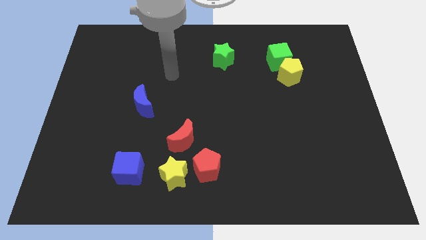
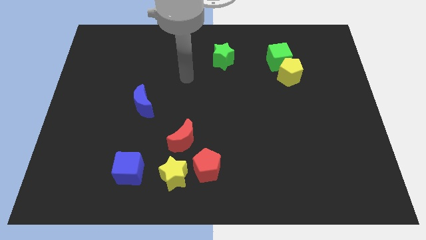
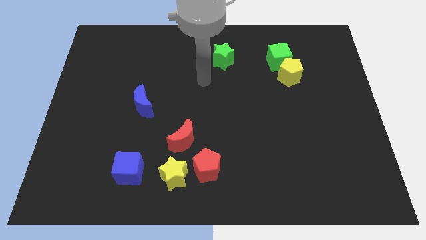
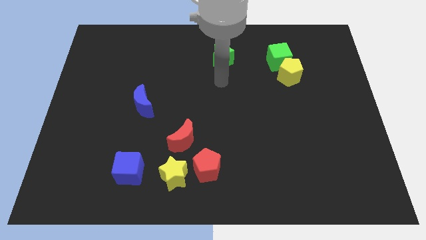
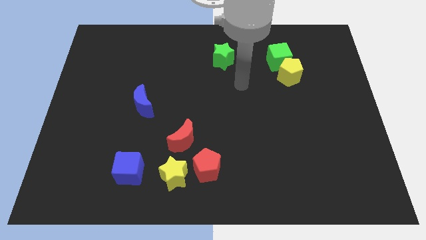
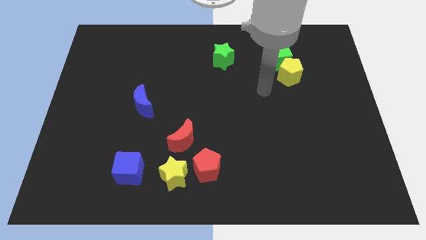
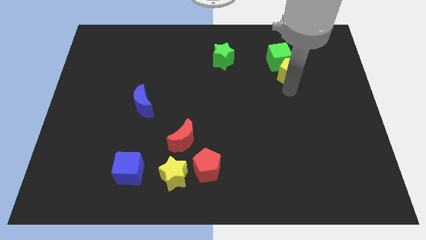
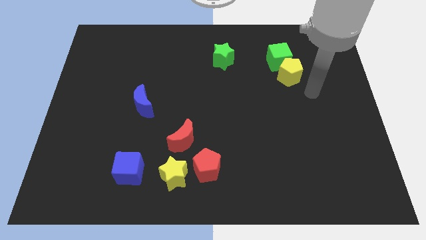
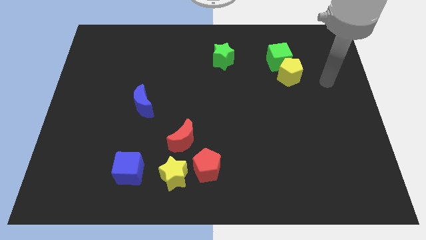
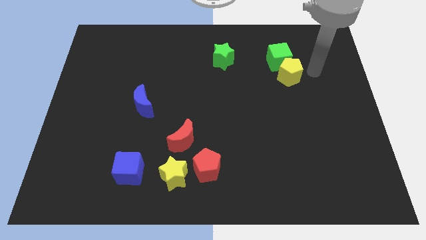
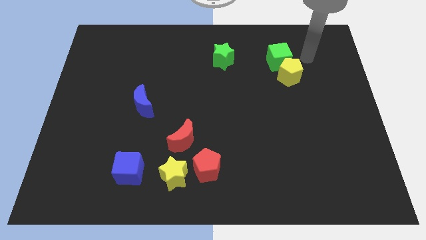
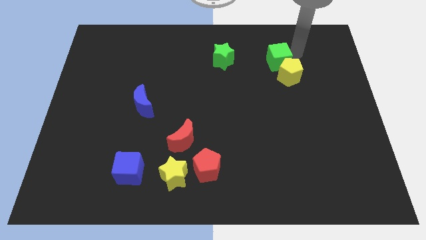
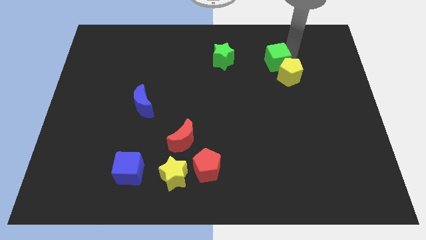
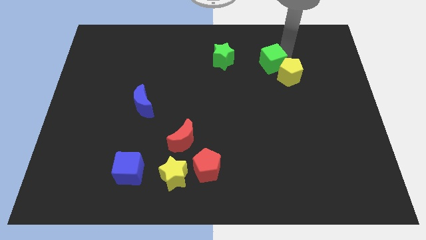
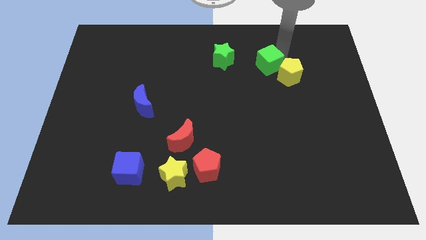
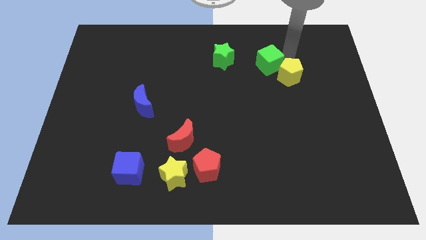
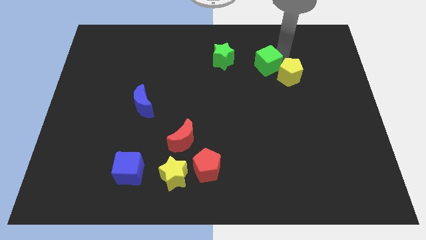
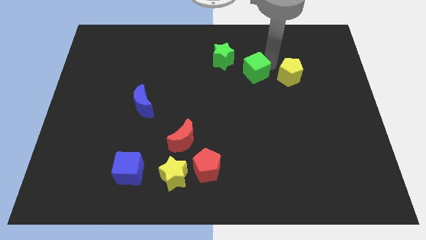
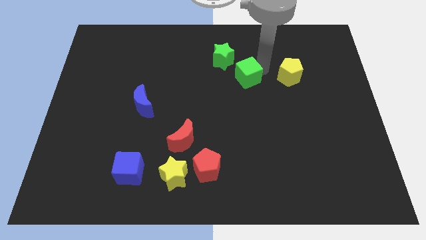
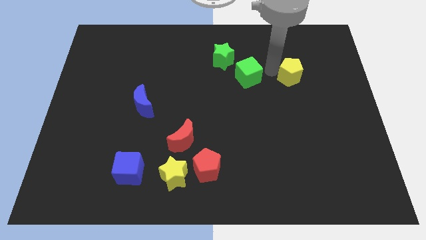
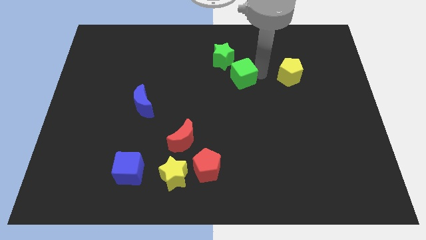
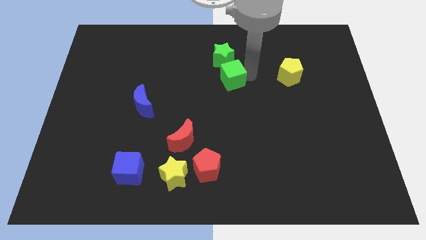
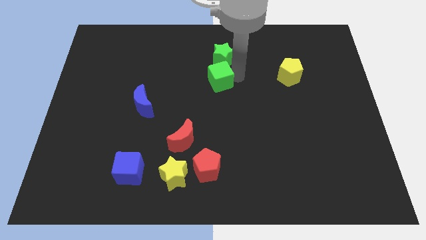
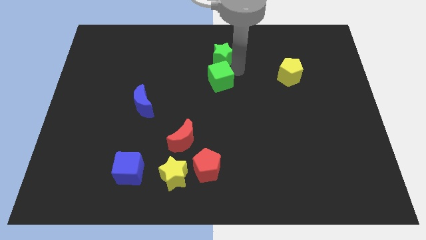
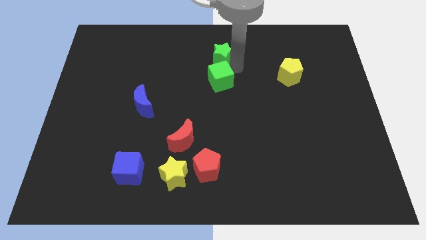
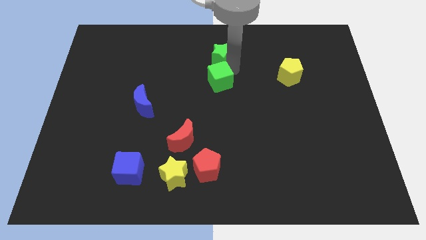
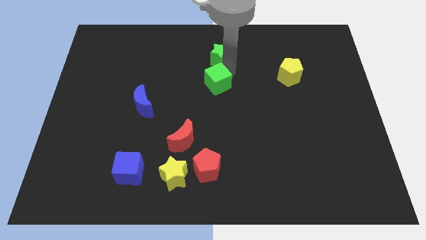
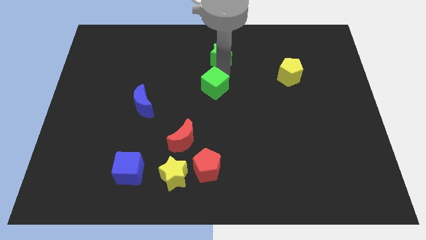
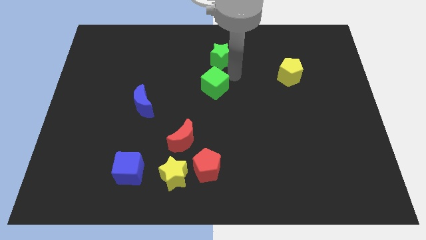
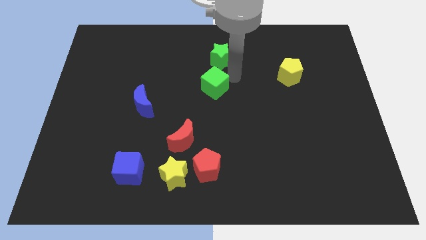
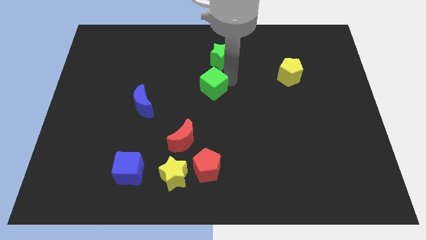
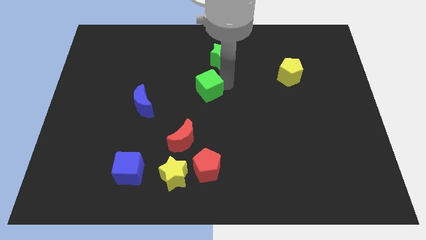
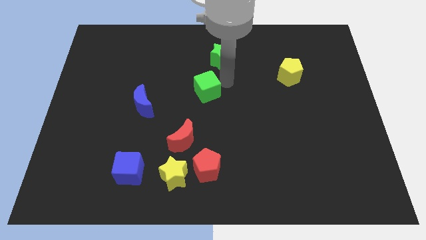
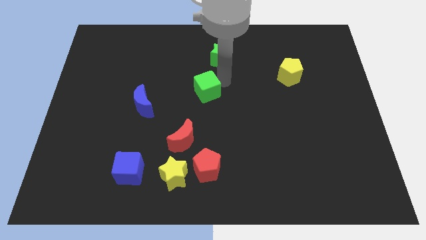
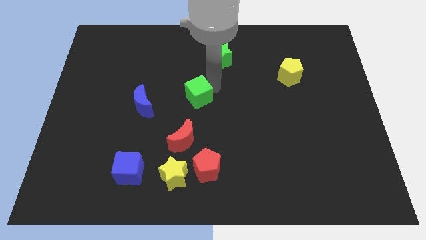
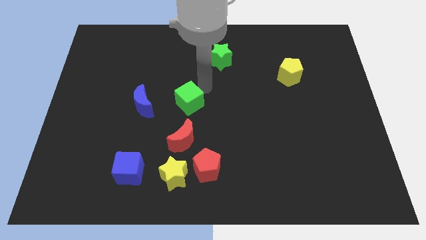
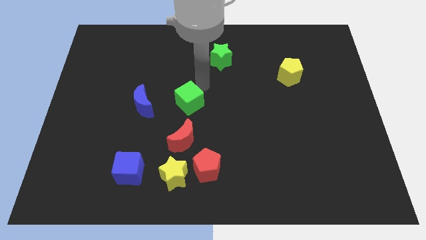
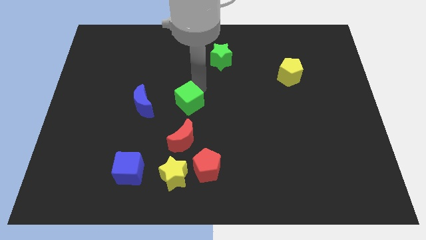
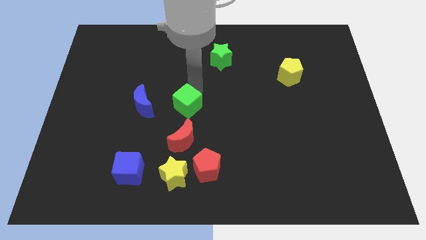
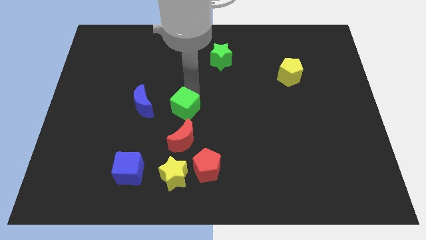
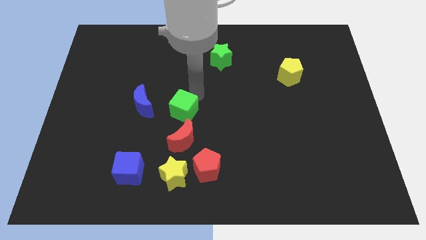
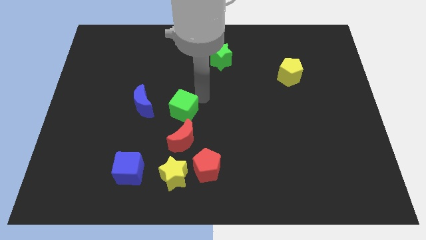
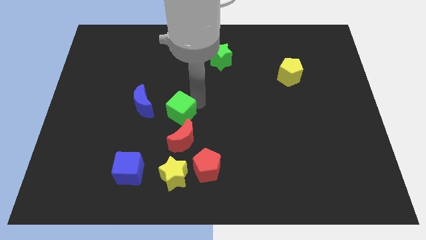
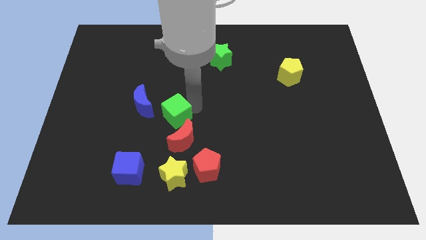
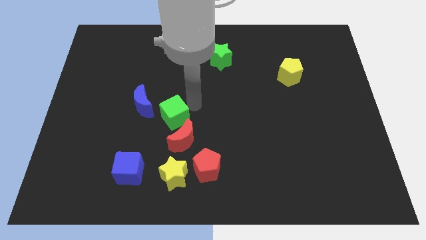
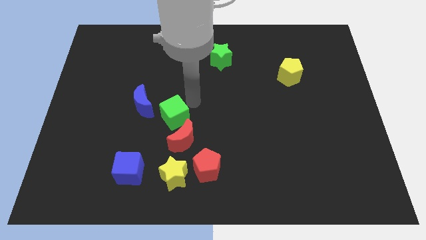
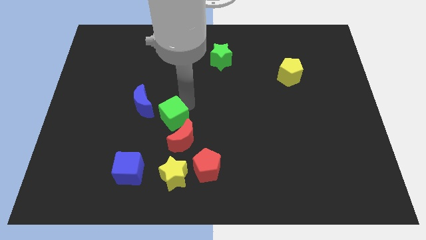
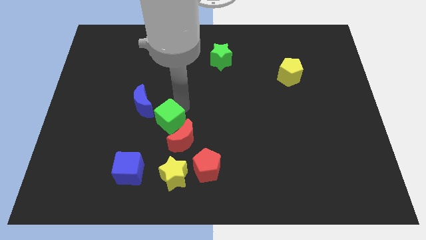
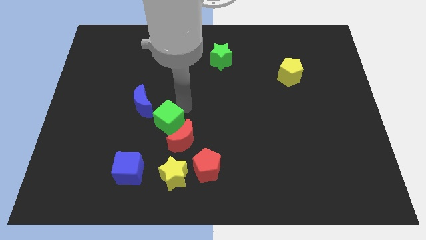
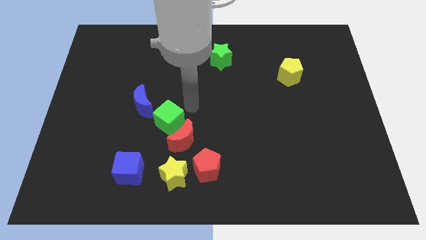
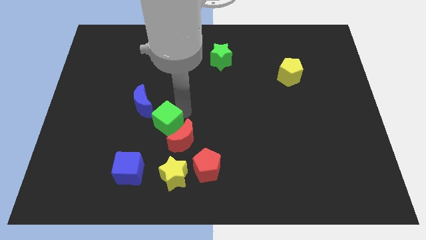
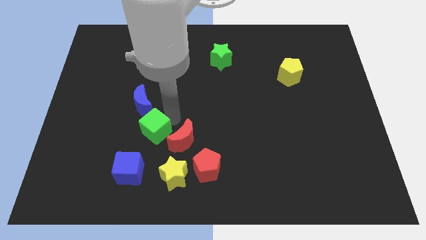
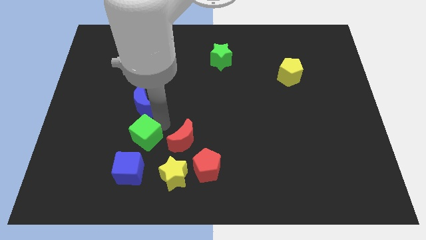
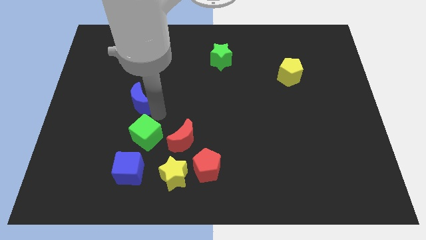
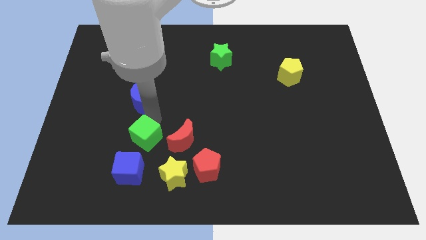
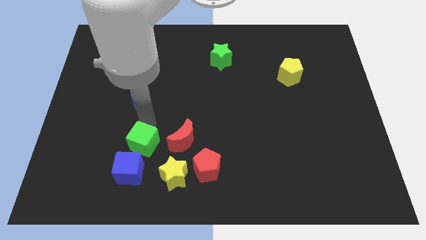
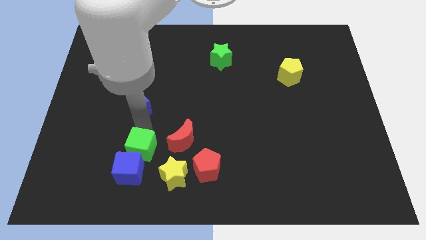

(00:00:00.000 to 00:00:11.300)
slide the green cube next to the blue cube

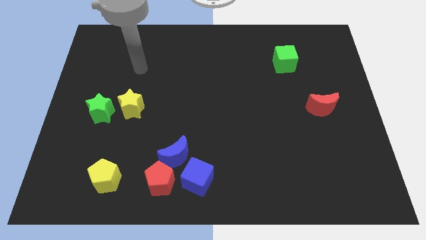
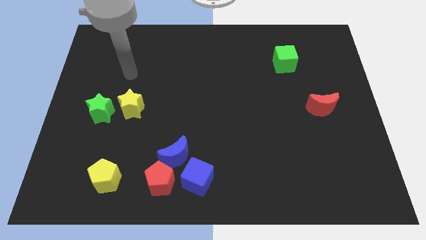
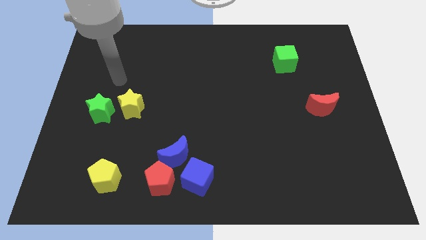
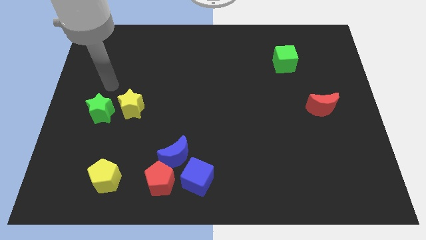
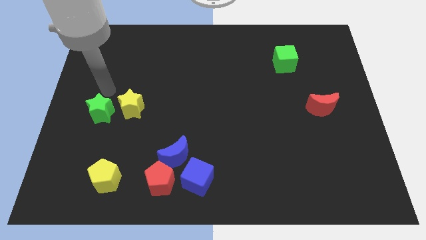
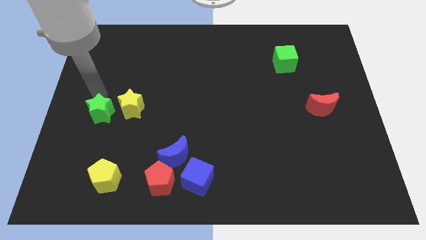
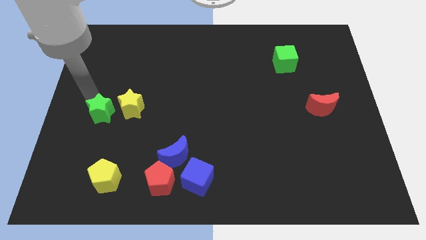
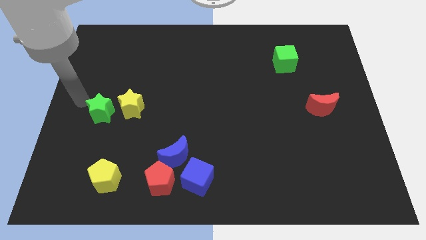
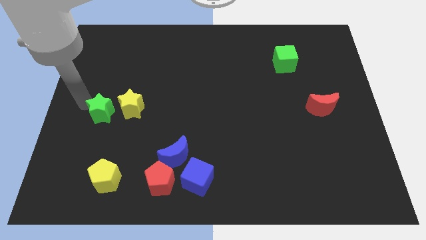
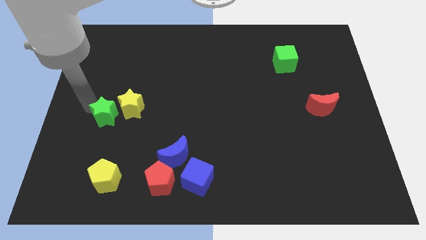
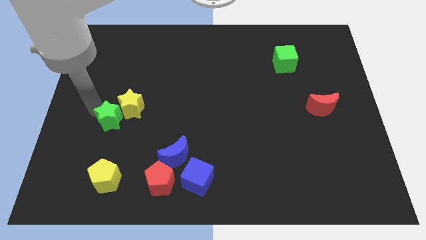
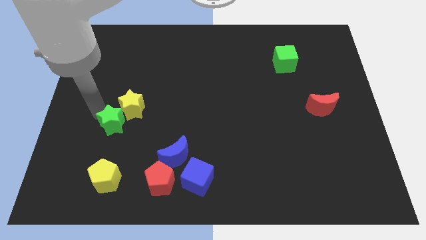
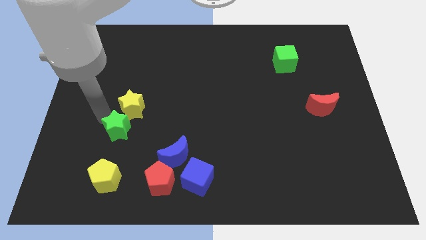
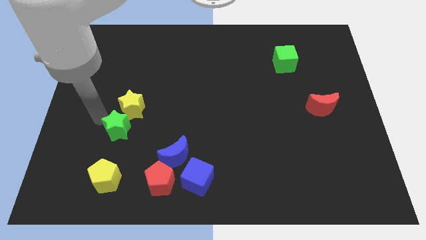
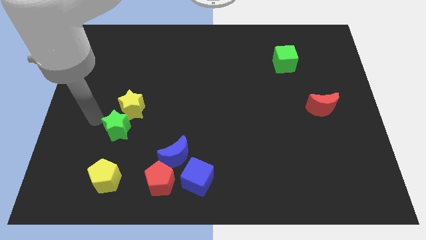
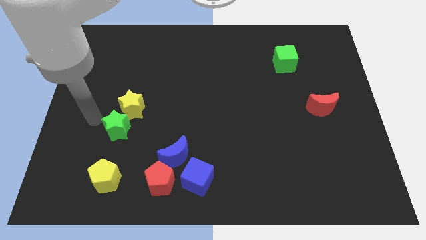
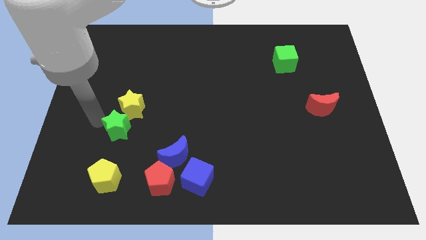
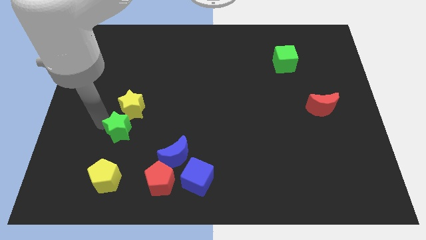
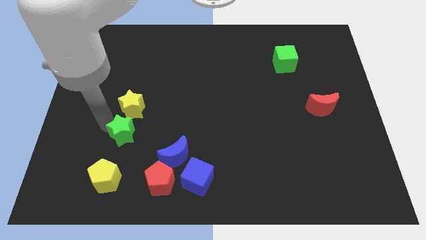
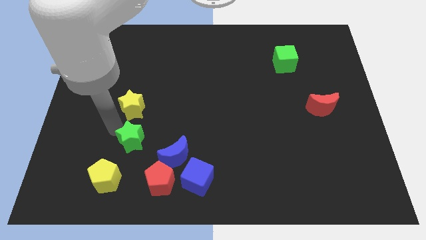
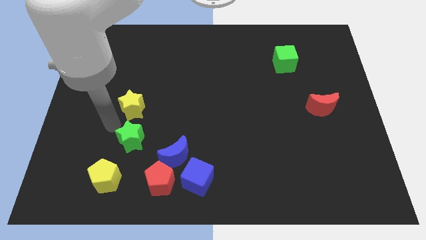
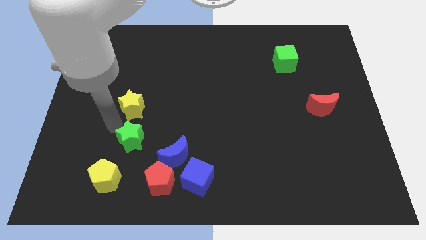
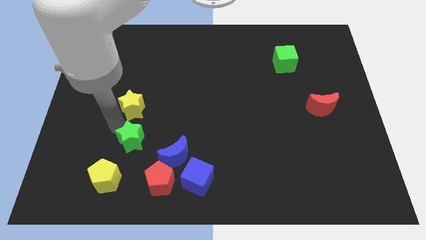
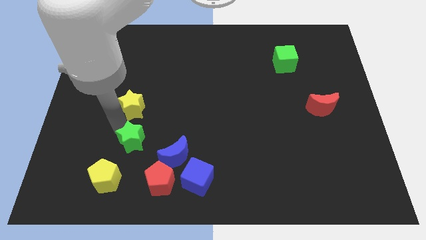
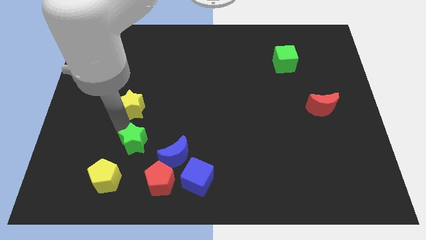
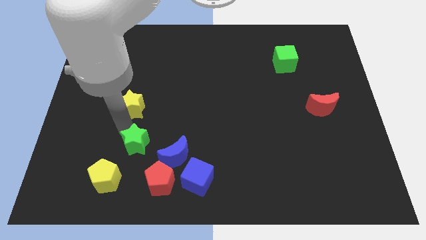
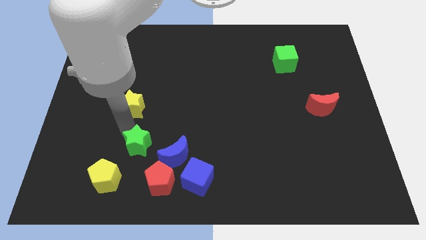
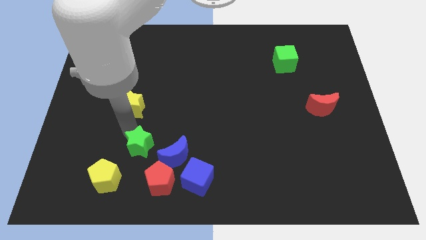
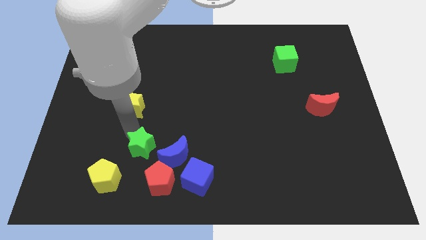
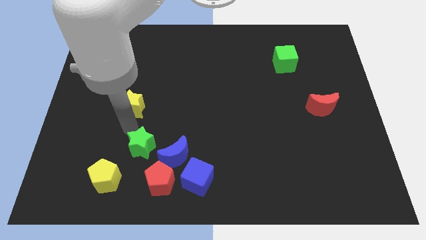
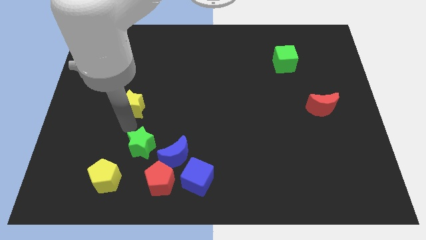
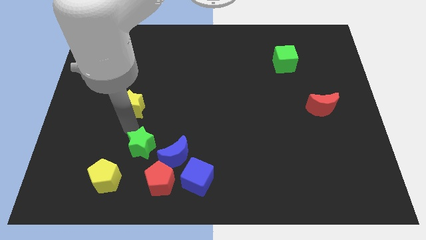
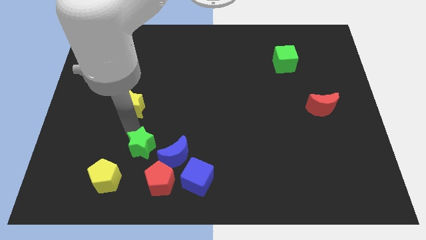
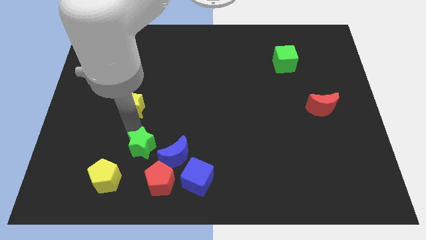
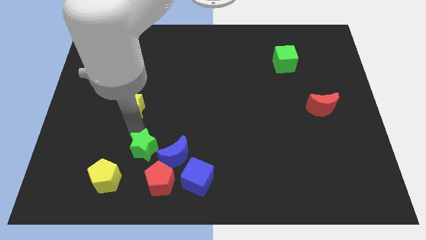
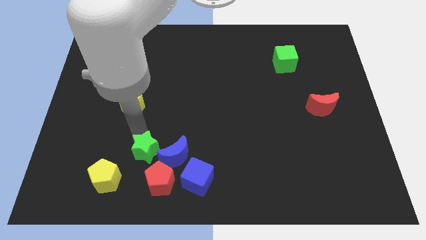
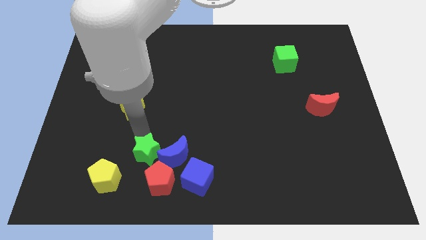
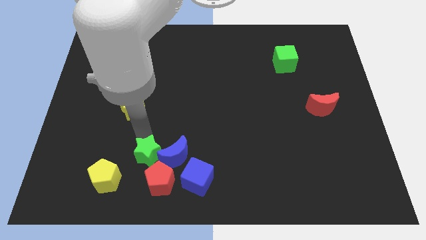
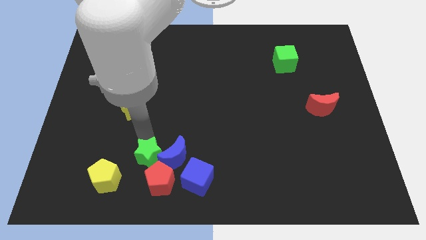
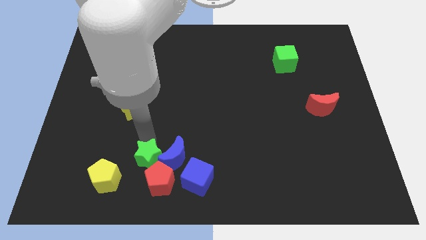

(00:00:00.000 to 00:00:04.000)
push the green star towards the red pentagon
